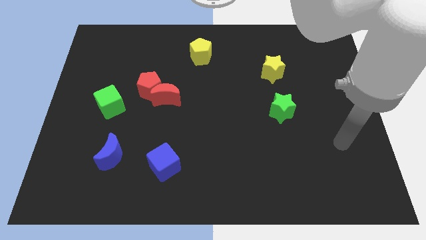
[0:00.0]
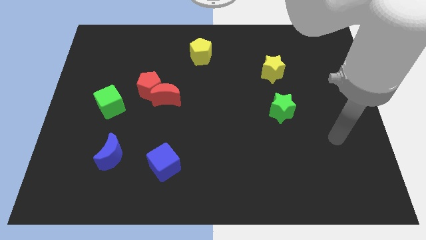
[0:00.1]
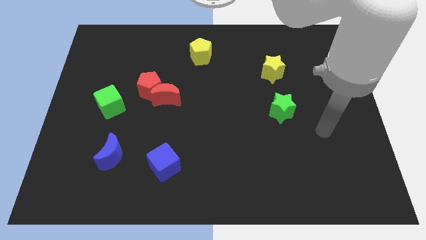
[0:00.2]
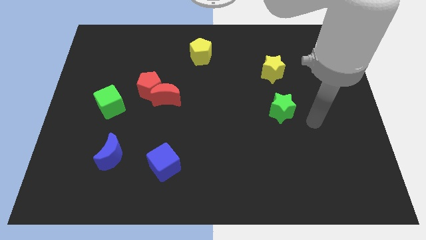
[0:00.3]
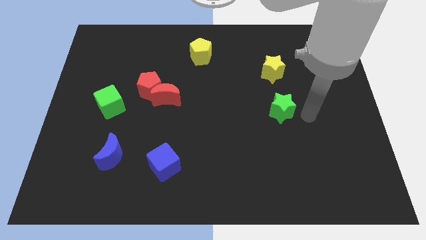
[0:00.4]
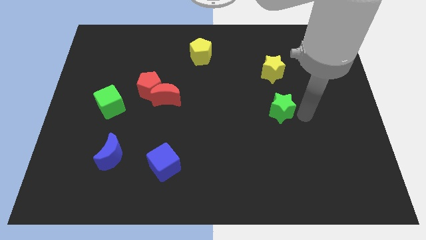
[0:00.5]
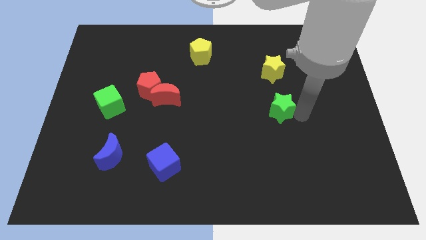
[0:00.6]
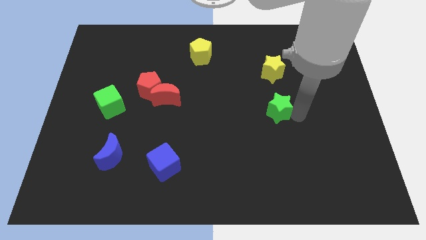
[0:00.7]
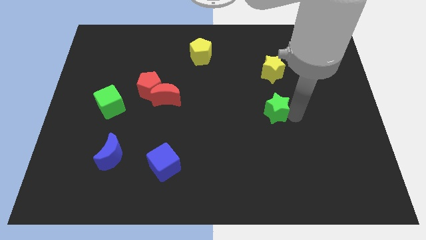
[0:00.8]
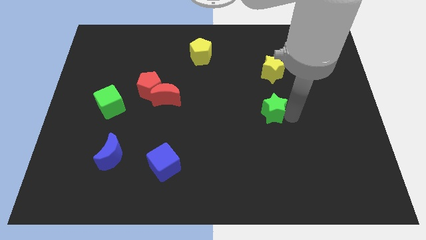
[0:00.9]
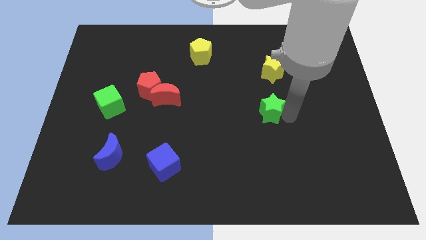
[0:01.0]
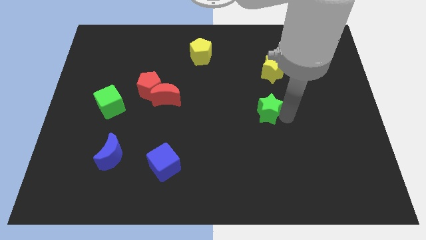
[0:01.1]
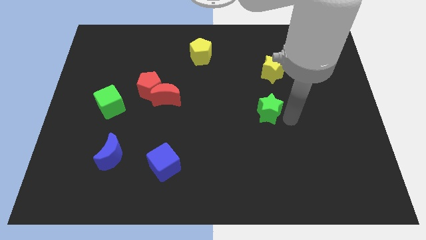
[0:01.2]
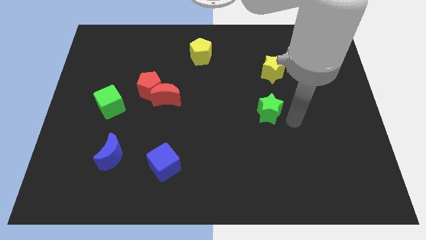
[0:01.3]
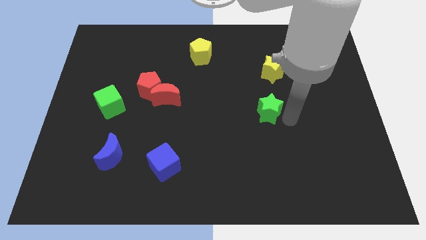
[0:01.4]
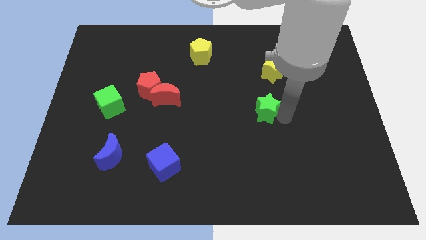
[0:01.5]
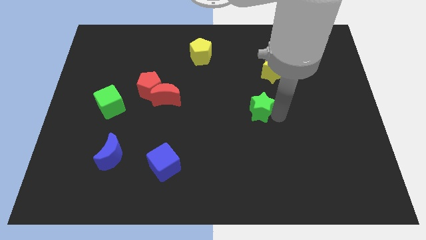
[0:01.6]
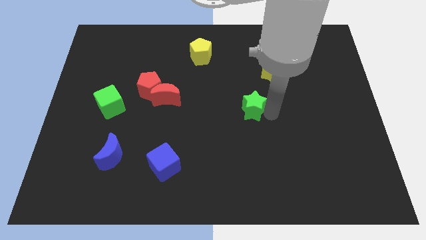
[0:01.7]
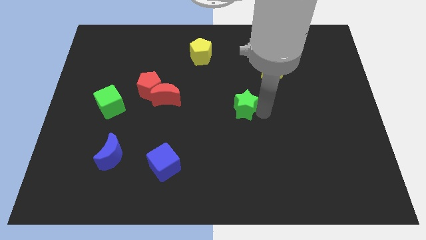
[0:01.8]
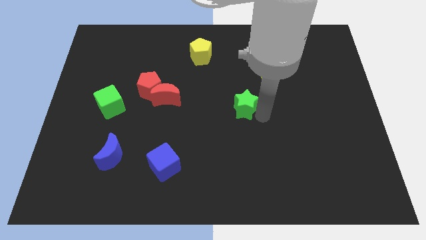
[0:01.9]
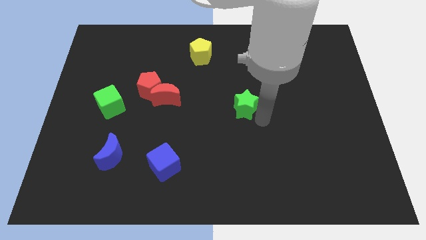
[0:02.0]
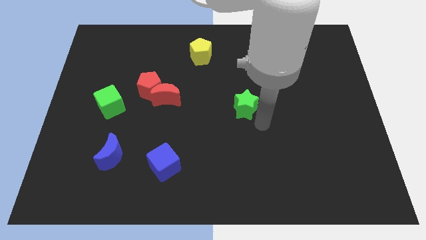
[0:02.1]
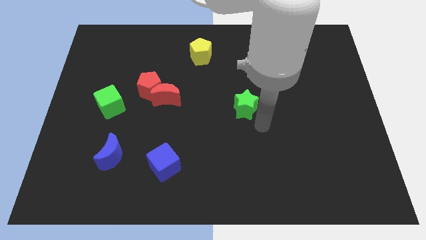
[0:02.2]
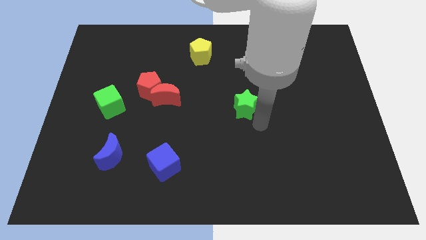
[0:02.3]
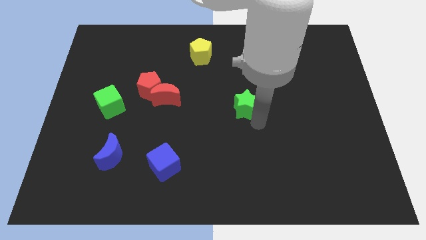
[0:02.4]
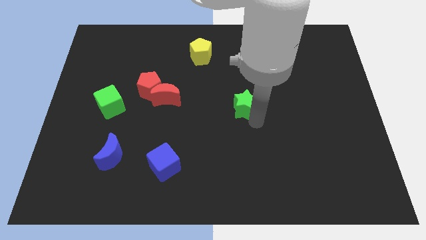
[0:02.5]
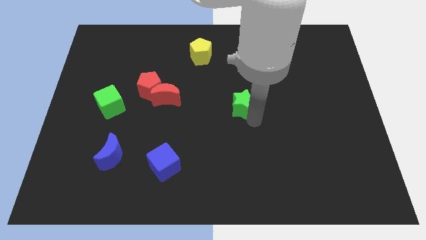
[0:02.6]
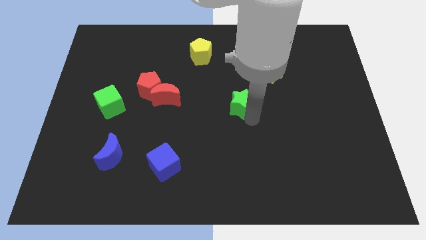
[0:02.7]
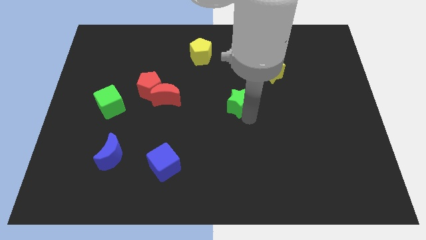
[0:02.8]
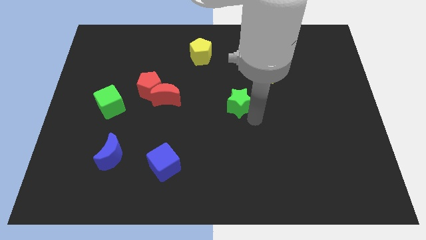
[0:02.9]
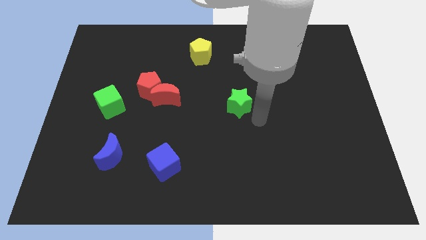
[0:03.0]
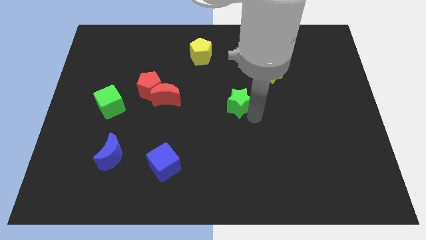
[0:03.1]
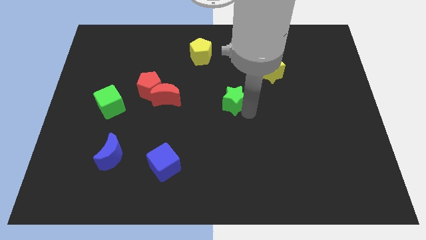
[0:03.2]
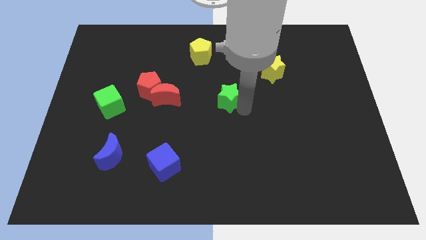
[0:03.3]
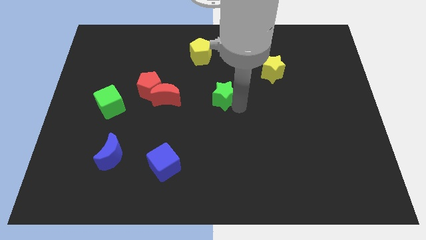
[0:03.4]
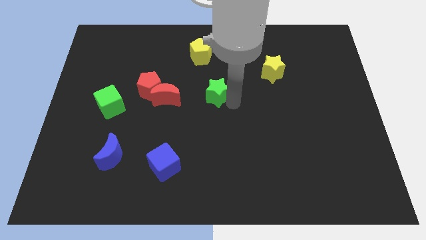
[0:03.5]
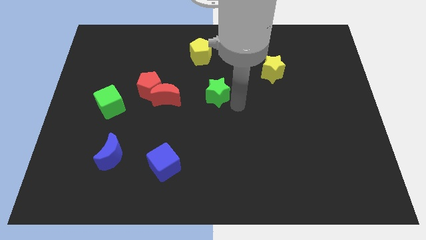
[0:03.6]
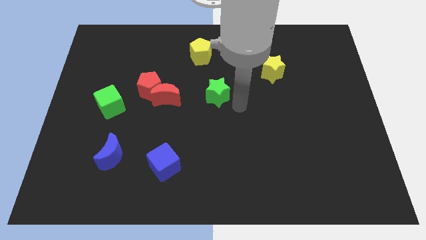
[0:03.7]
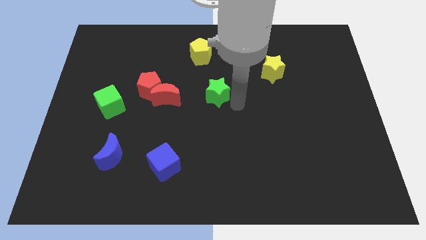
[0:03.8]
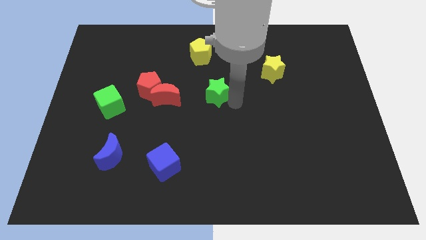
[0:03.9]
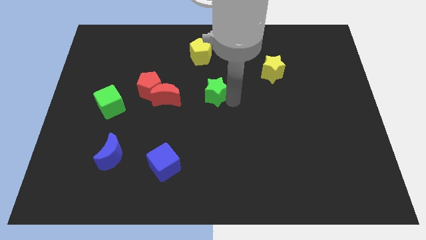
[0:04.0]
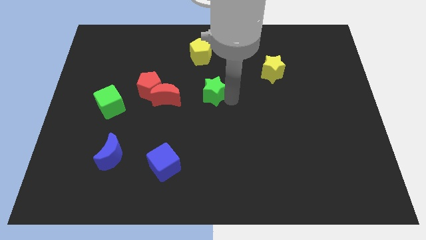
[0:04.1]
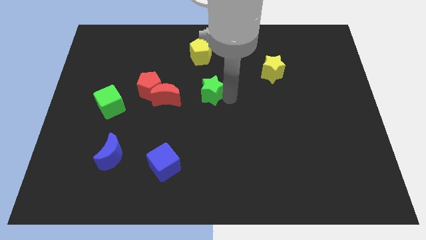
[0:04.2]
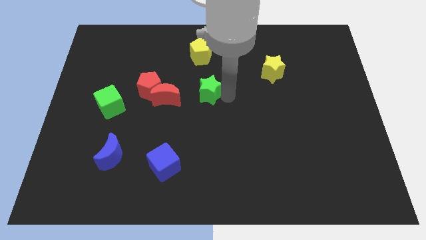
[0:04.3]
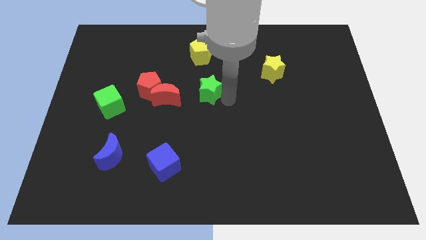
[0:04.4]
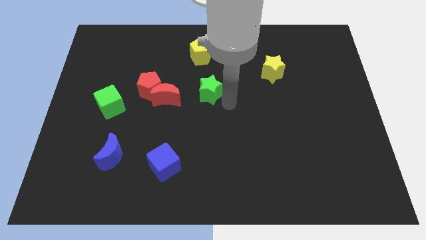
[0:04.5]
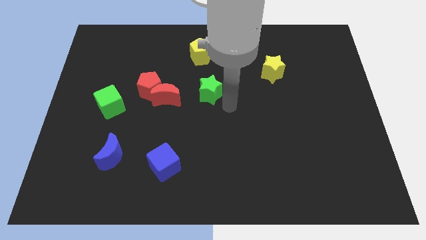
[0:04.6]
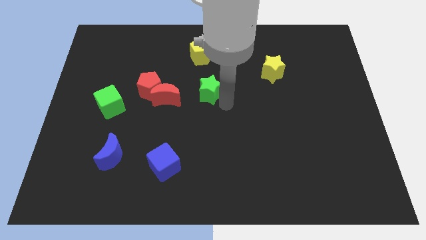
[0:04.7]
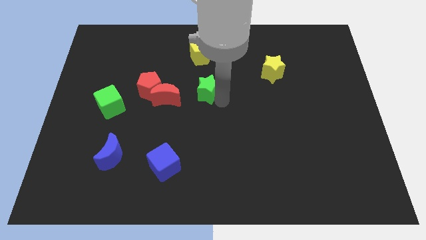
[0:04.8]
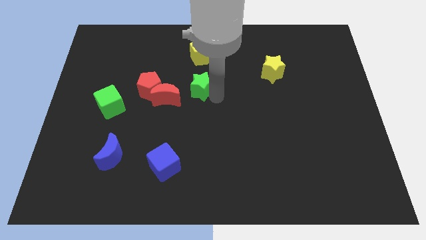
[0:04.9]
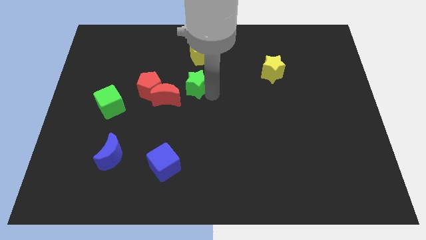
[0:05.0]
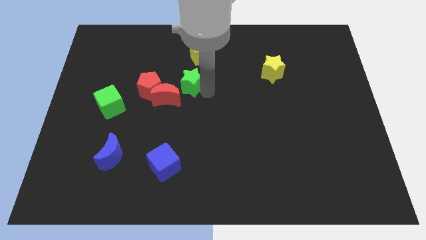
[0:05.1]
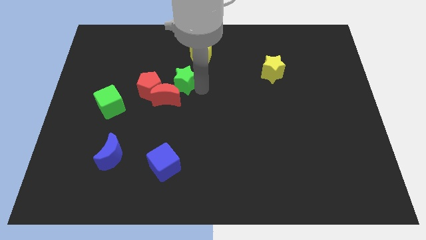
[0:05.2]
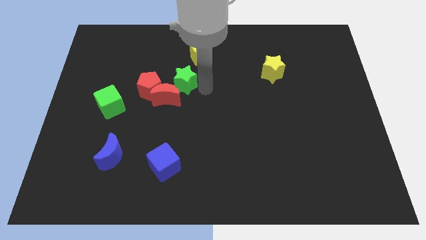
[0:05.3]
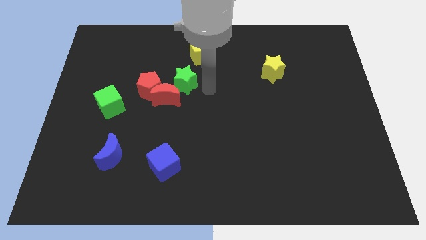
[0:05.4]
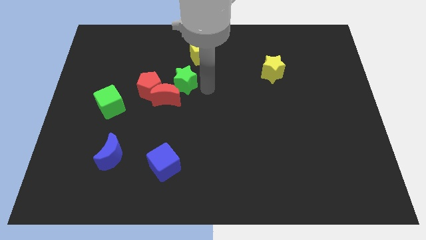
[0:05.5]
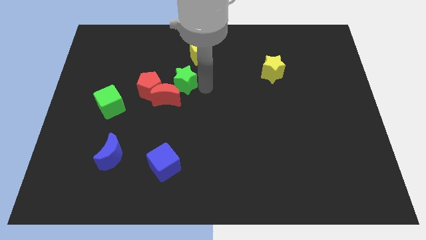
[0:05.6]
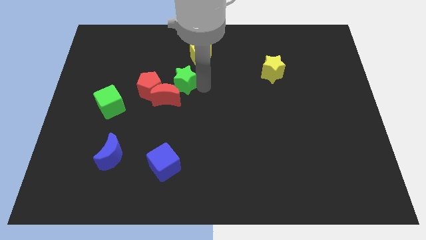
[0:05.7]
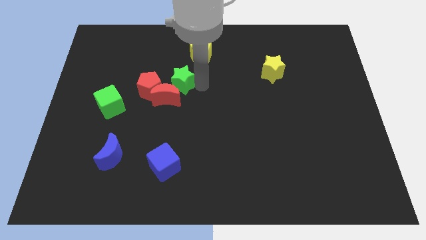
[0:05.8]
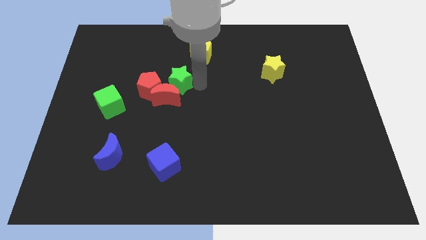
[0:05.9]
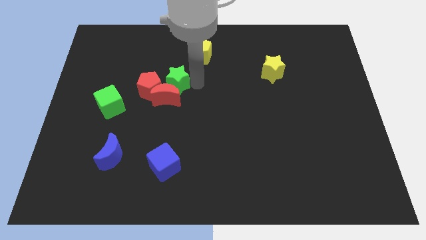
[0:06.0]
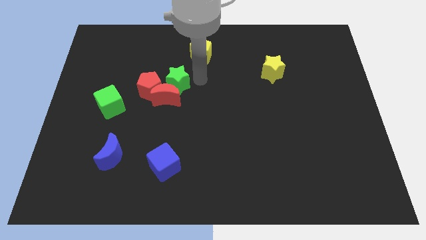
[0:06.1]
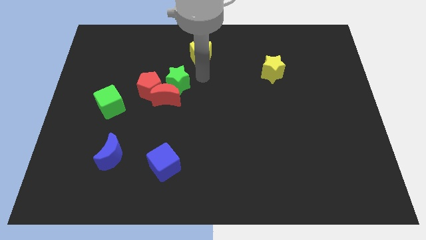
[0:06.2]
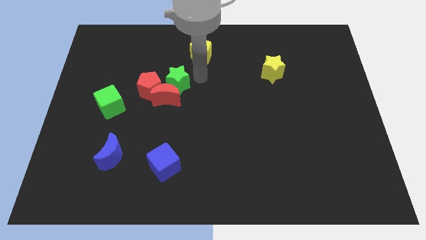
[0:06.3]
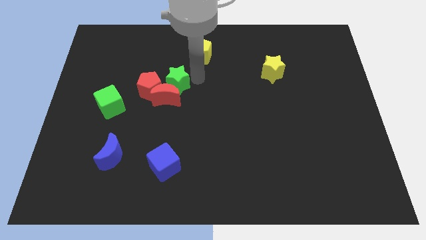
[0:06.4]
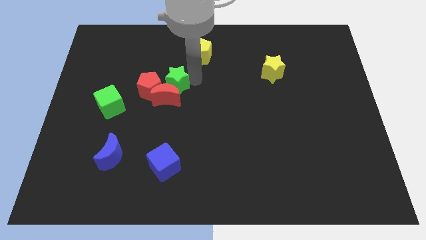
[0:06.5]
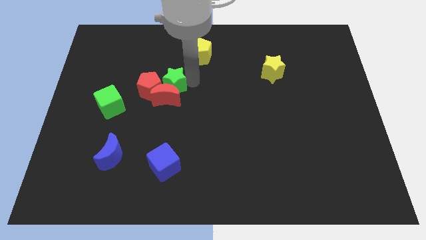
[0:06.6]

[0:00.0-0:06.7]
slide the green star close to the red pentagon

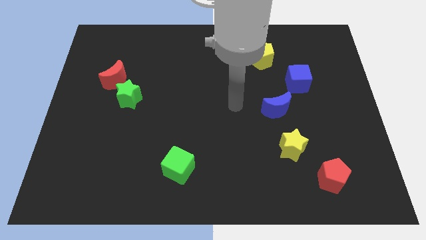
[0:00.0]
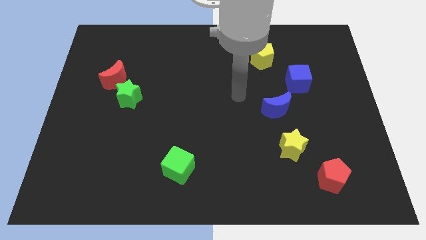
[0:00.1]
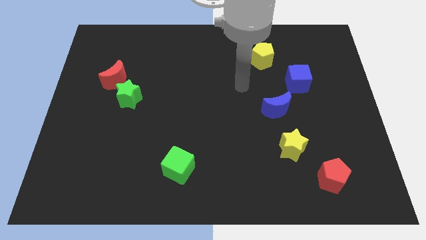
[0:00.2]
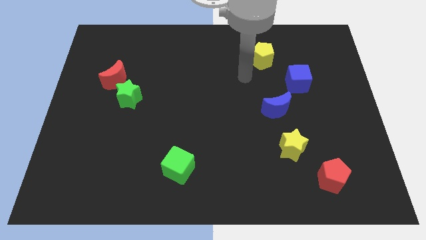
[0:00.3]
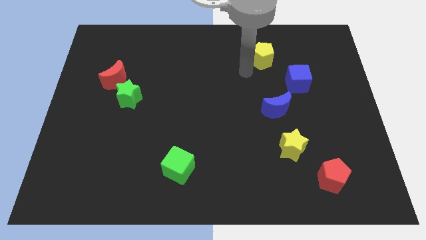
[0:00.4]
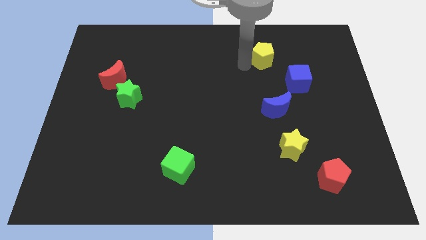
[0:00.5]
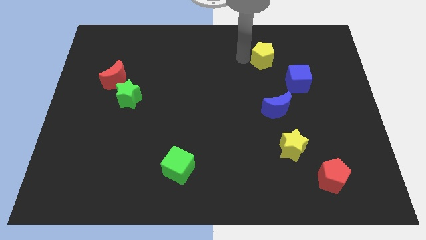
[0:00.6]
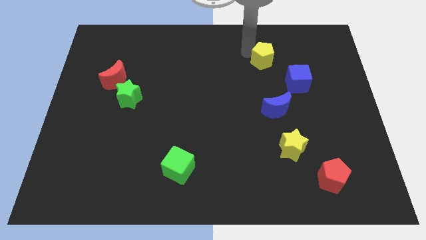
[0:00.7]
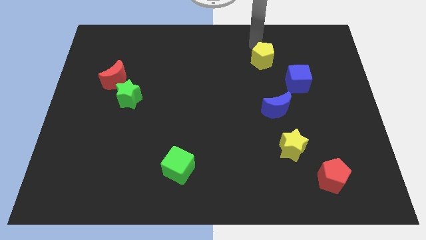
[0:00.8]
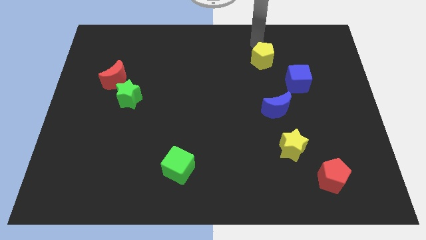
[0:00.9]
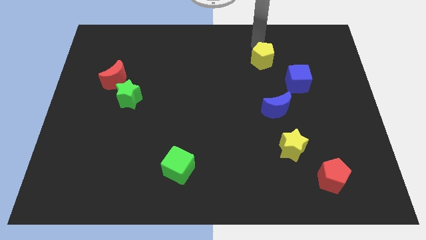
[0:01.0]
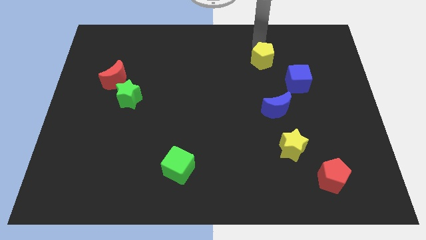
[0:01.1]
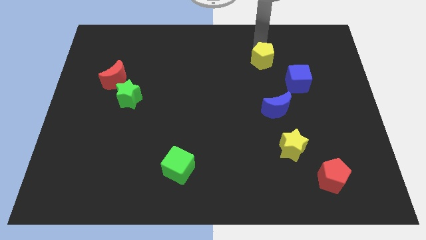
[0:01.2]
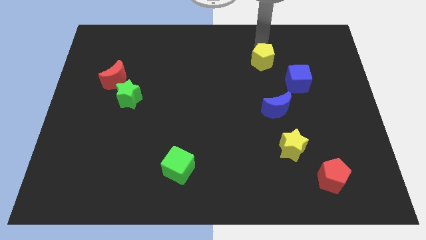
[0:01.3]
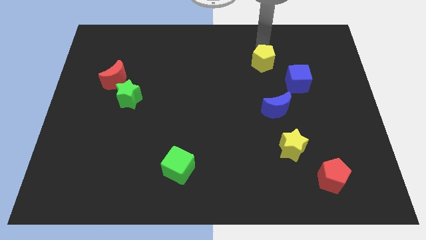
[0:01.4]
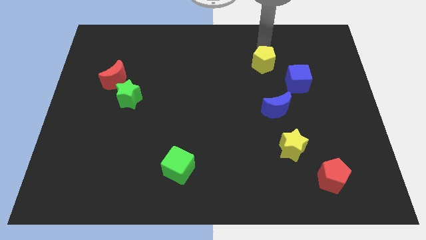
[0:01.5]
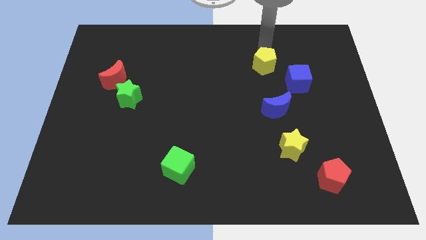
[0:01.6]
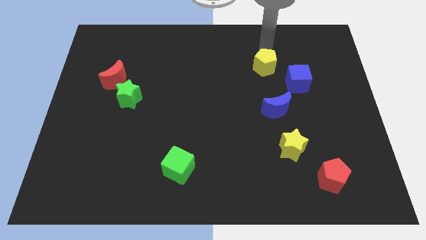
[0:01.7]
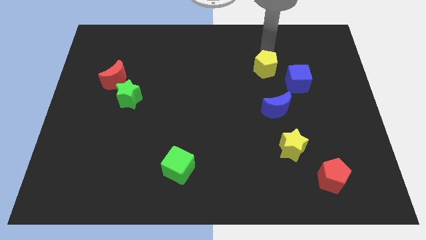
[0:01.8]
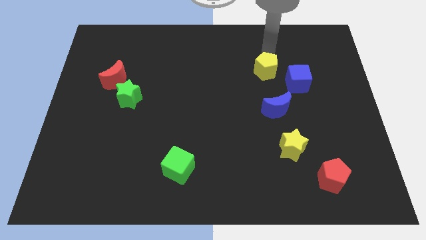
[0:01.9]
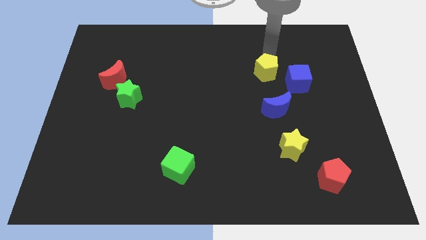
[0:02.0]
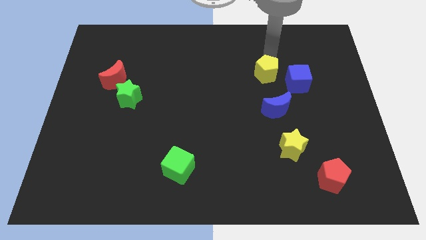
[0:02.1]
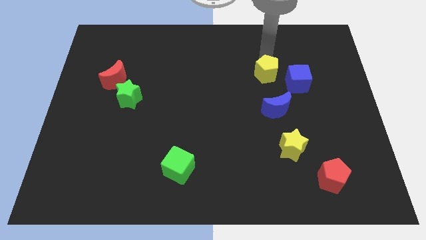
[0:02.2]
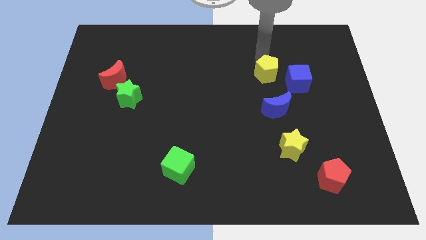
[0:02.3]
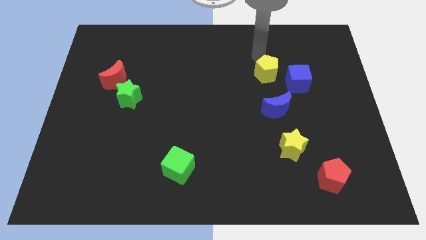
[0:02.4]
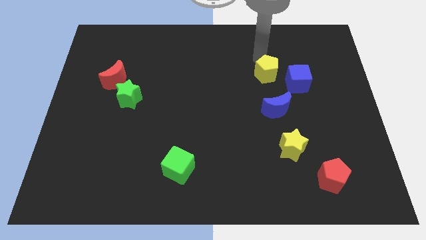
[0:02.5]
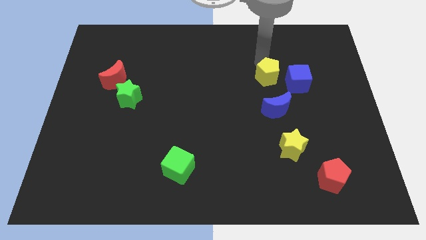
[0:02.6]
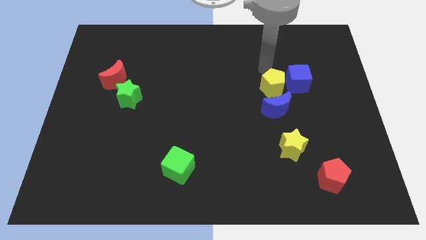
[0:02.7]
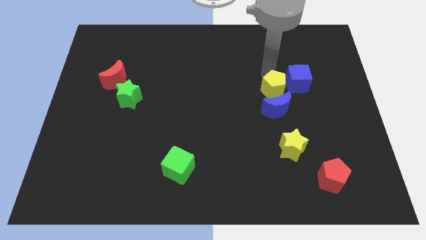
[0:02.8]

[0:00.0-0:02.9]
slide the yellow pentagon next to the blue moon
